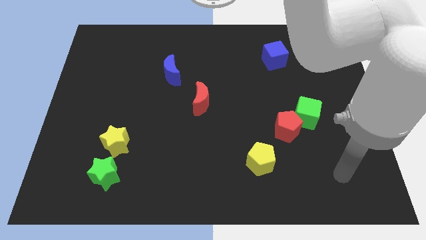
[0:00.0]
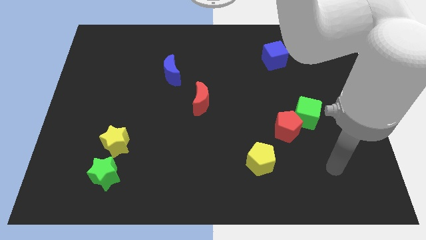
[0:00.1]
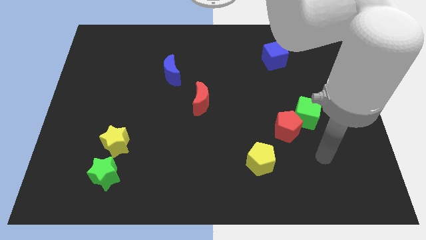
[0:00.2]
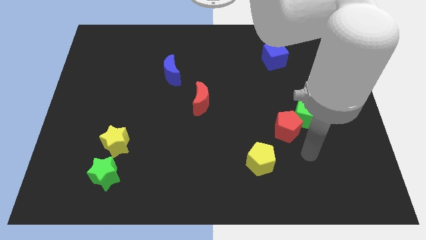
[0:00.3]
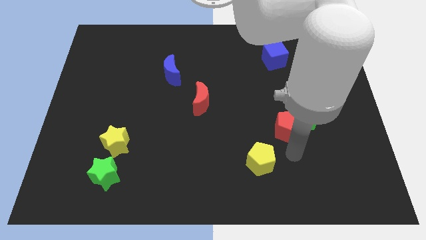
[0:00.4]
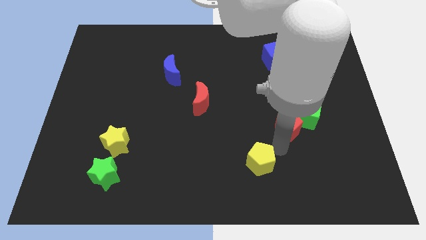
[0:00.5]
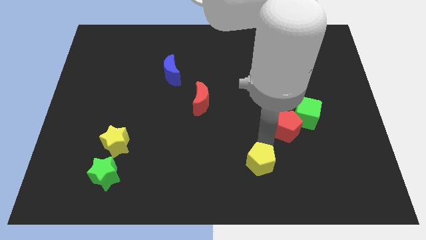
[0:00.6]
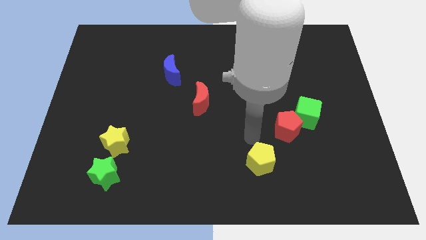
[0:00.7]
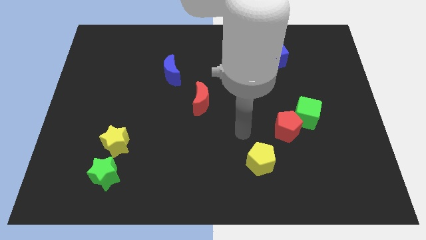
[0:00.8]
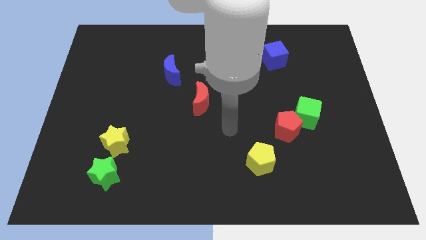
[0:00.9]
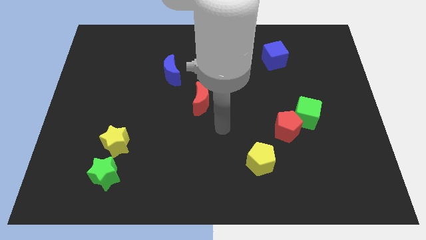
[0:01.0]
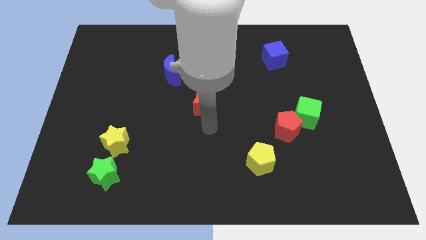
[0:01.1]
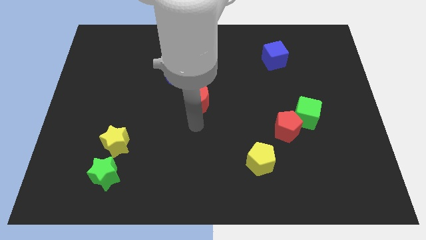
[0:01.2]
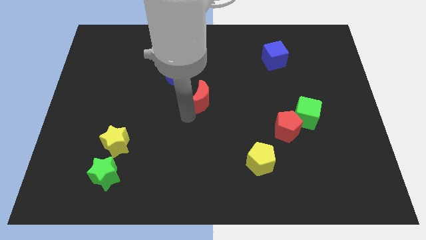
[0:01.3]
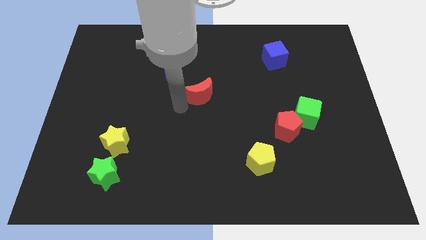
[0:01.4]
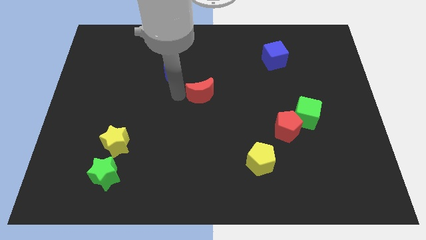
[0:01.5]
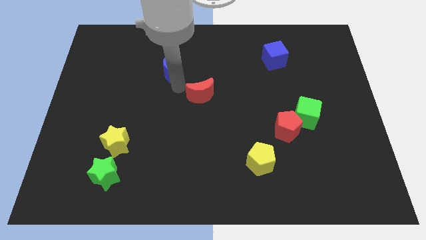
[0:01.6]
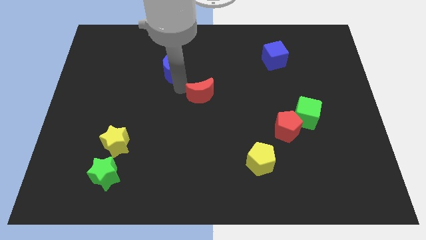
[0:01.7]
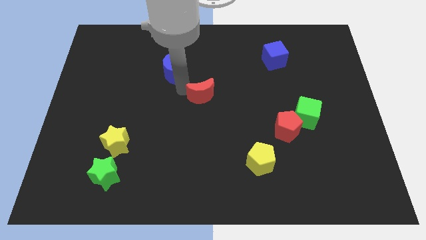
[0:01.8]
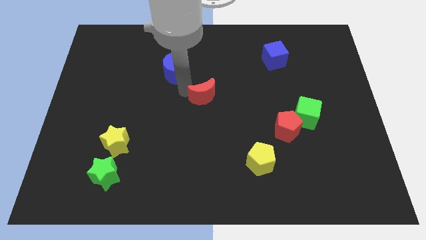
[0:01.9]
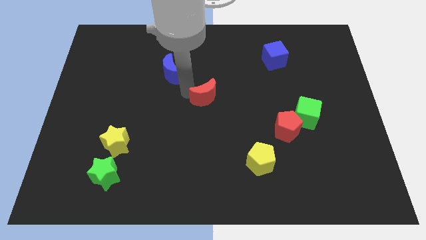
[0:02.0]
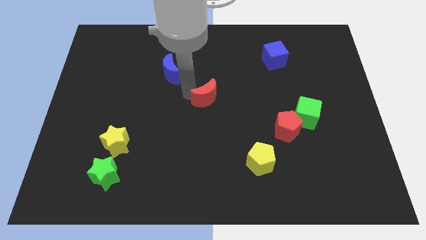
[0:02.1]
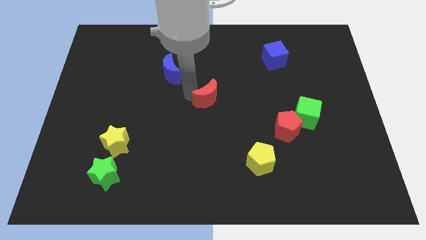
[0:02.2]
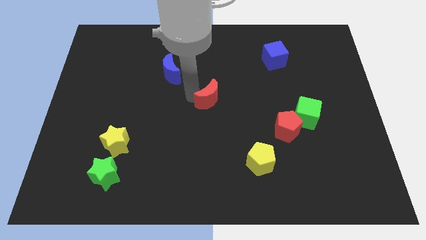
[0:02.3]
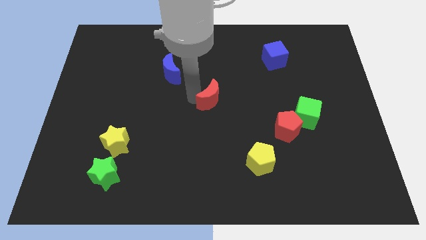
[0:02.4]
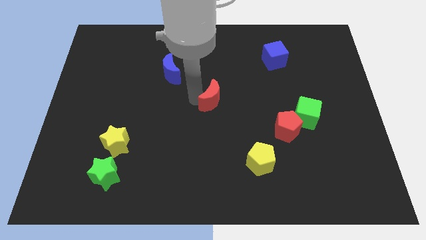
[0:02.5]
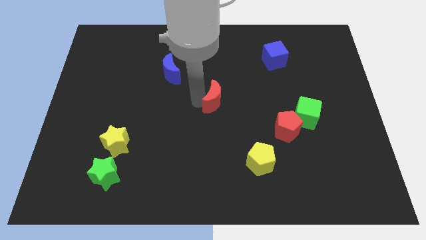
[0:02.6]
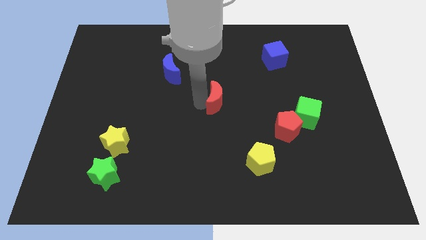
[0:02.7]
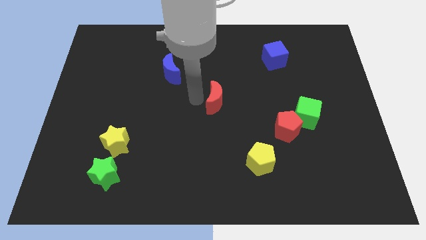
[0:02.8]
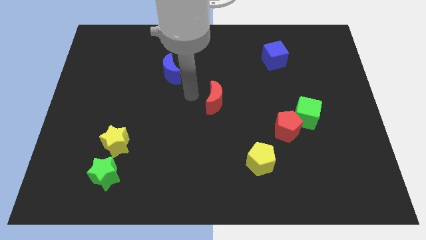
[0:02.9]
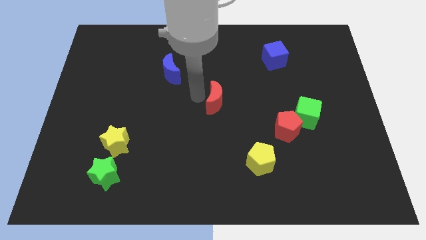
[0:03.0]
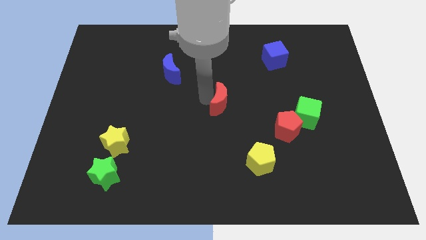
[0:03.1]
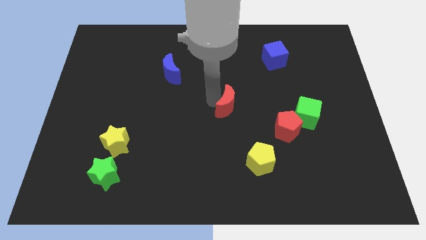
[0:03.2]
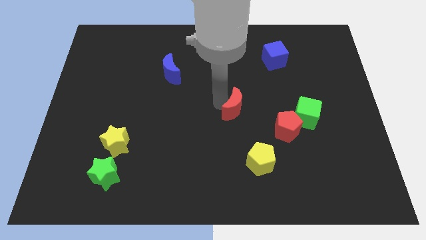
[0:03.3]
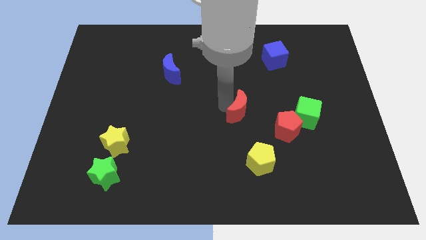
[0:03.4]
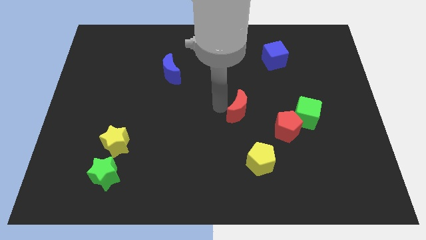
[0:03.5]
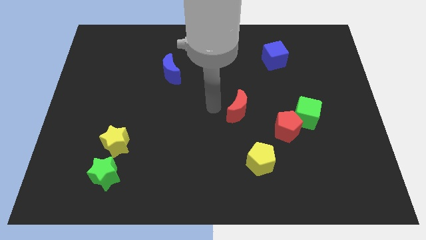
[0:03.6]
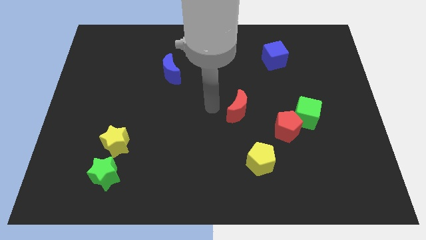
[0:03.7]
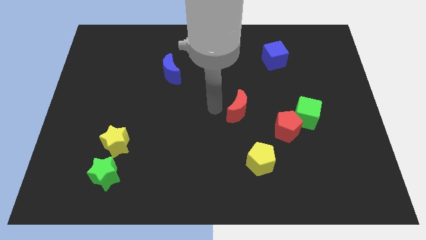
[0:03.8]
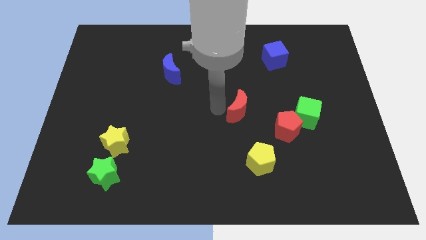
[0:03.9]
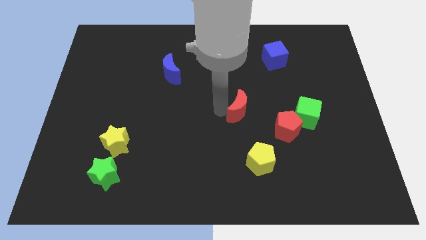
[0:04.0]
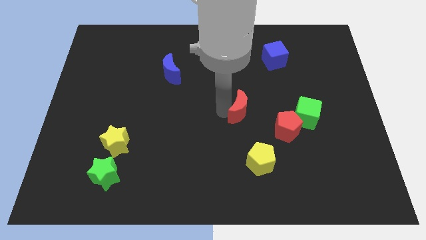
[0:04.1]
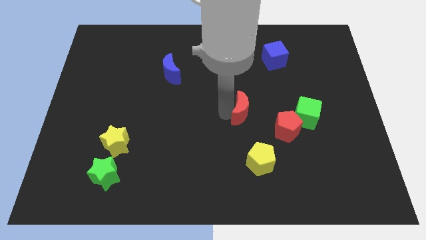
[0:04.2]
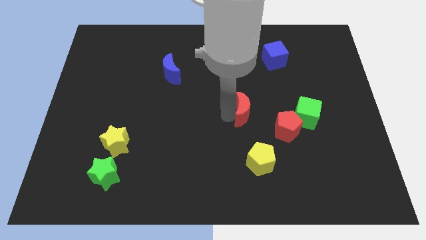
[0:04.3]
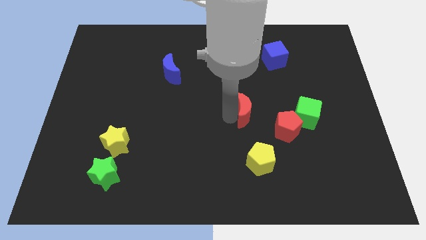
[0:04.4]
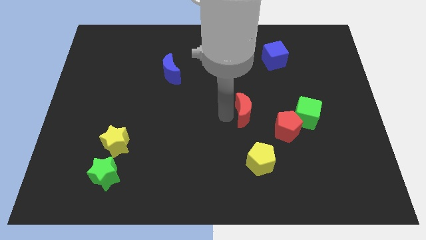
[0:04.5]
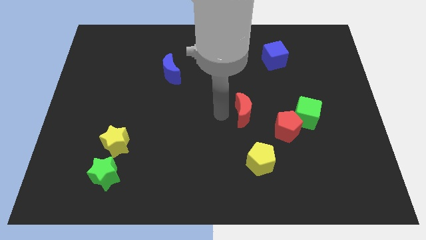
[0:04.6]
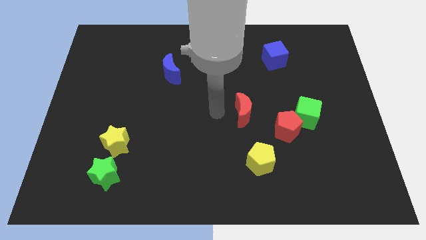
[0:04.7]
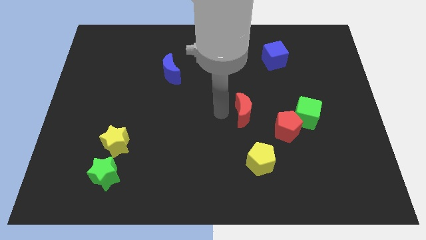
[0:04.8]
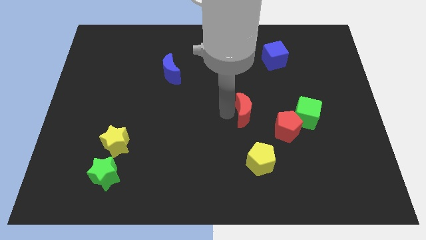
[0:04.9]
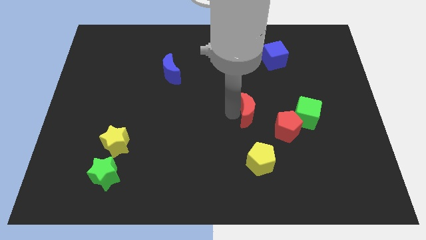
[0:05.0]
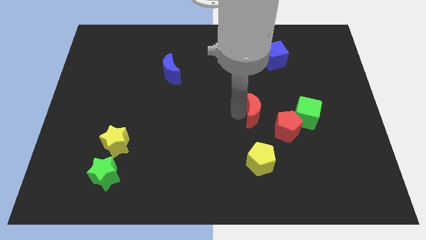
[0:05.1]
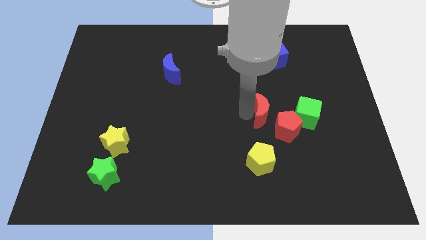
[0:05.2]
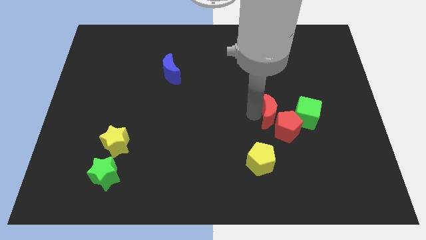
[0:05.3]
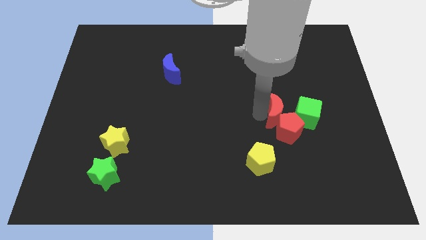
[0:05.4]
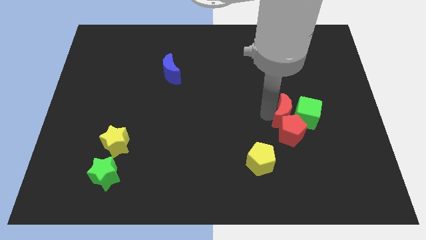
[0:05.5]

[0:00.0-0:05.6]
slide the red moon next to the green cube

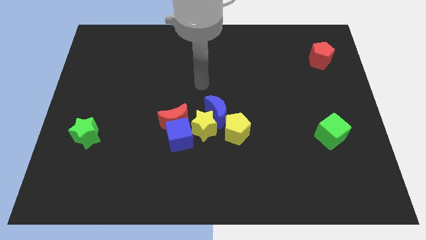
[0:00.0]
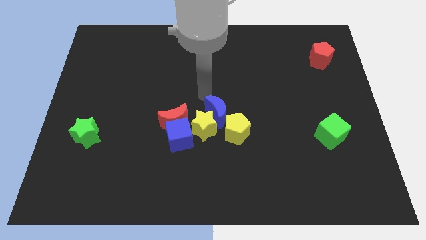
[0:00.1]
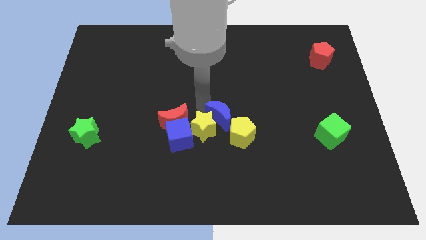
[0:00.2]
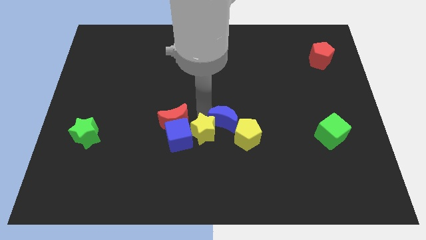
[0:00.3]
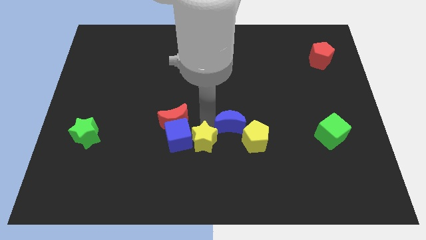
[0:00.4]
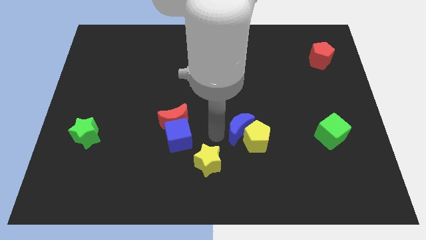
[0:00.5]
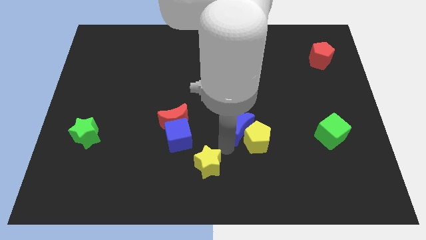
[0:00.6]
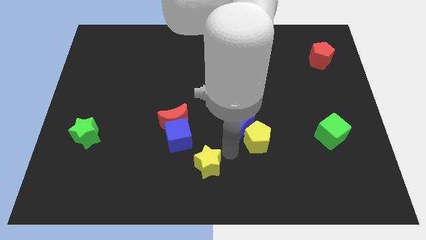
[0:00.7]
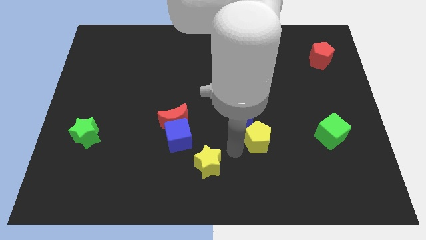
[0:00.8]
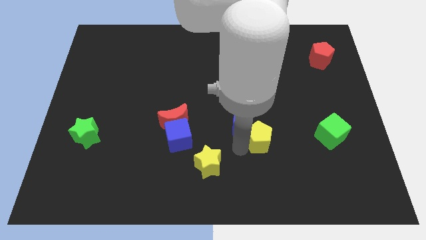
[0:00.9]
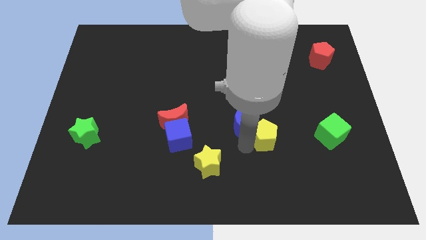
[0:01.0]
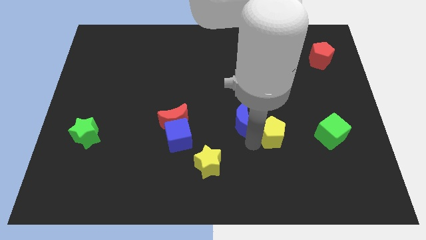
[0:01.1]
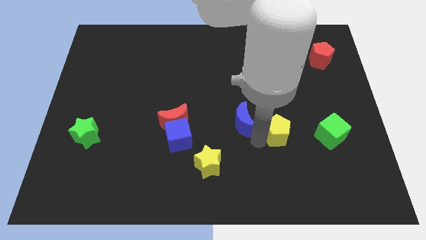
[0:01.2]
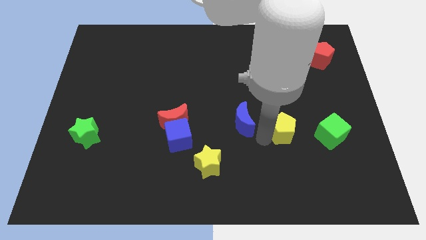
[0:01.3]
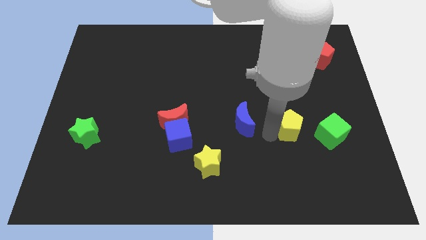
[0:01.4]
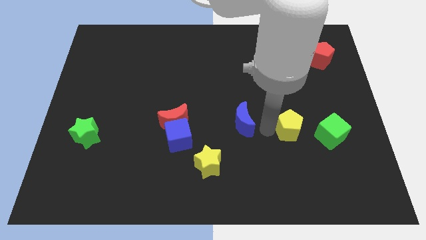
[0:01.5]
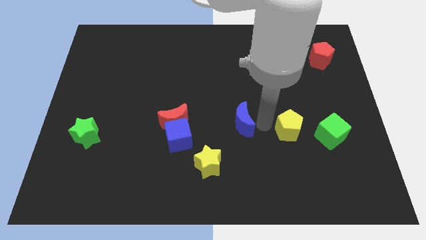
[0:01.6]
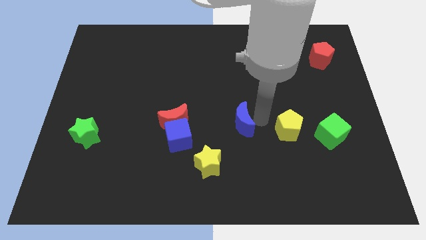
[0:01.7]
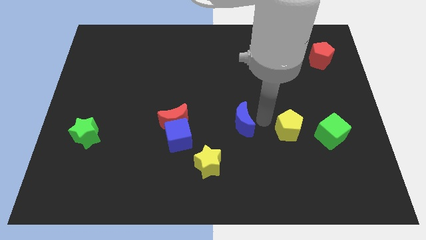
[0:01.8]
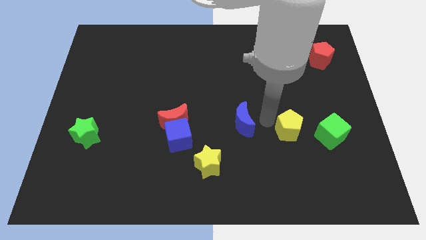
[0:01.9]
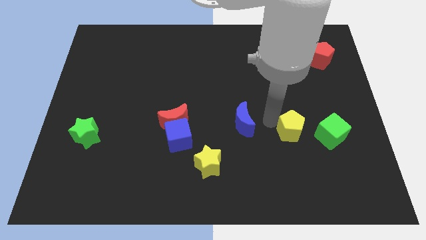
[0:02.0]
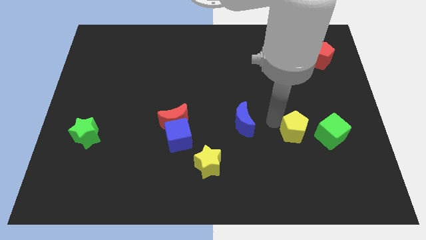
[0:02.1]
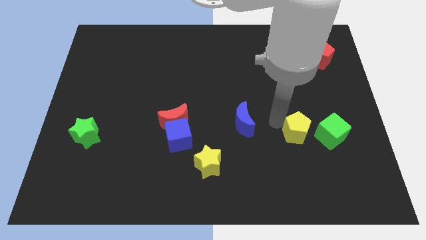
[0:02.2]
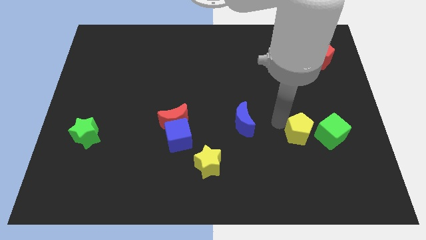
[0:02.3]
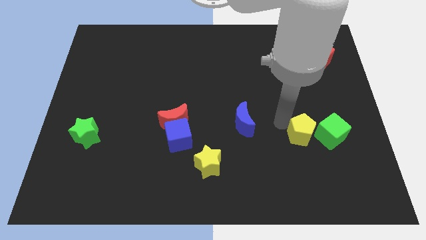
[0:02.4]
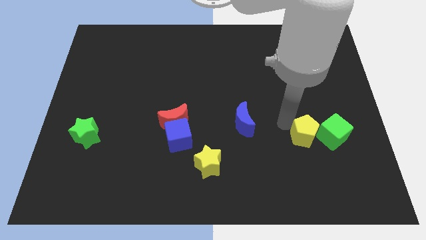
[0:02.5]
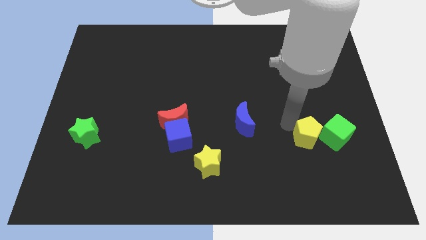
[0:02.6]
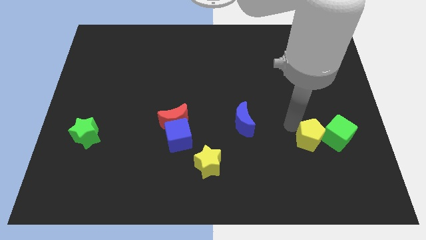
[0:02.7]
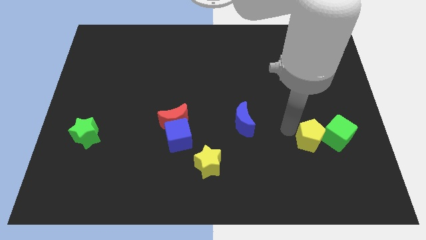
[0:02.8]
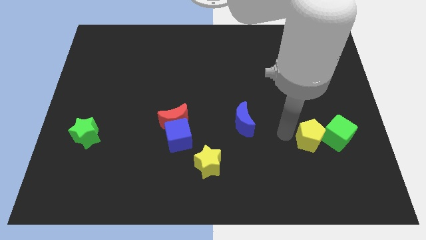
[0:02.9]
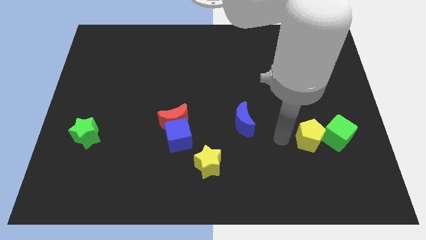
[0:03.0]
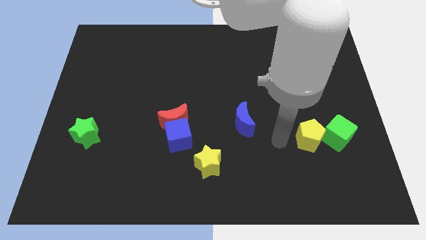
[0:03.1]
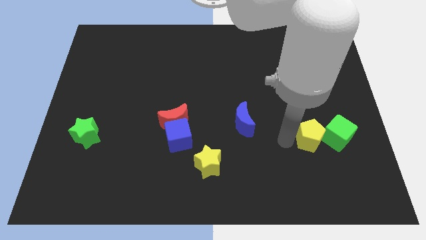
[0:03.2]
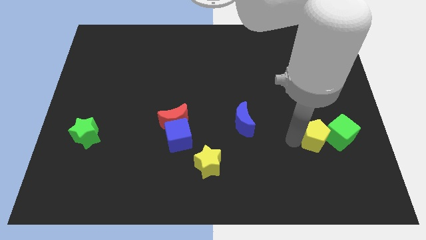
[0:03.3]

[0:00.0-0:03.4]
put the yellow pentagon to the green cube
